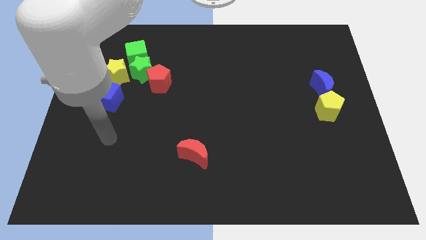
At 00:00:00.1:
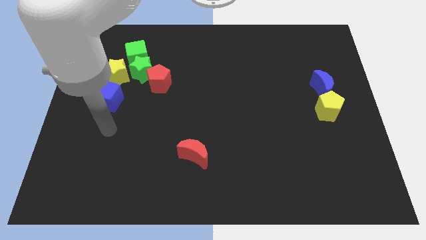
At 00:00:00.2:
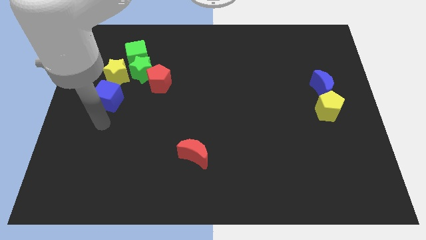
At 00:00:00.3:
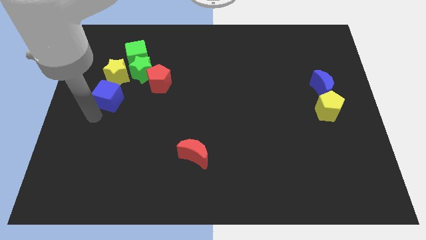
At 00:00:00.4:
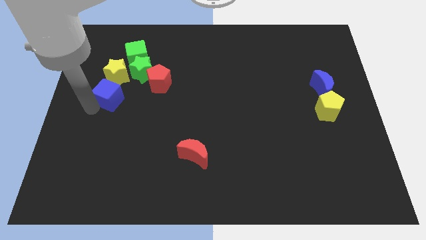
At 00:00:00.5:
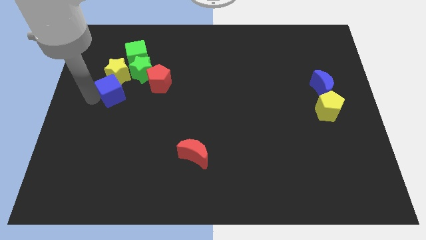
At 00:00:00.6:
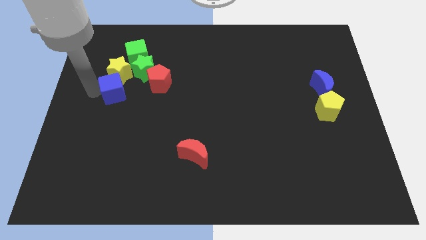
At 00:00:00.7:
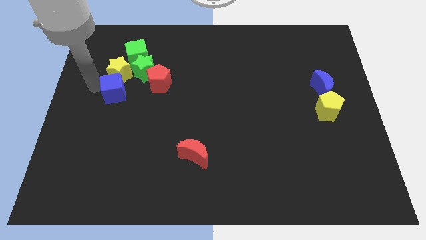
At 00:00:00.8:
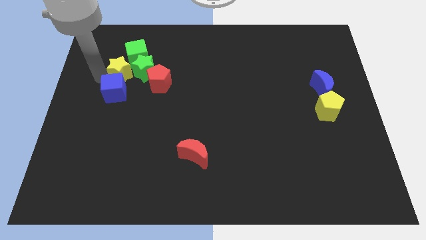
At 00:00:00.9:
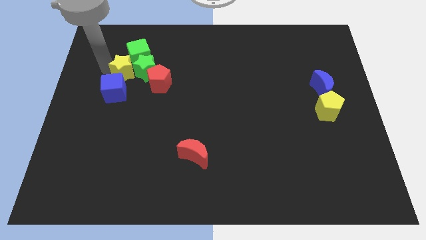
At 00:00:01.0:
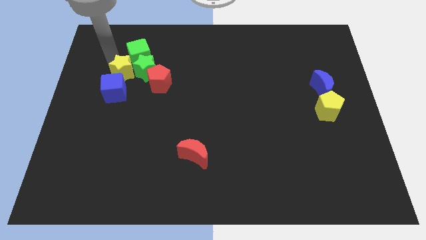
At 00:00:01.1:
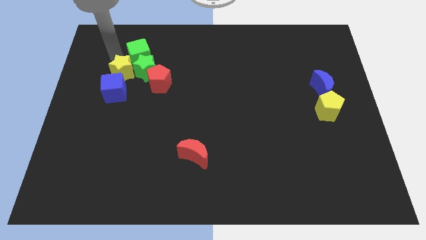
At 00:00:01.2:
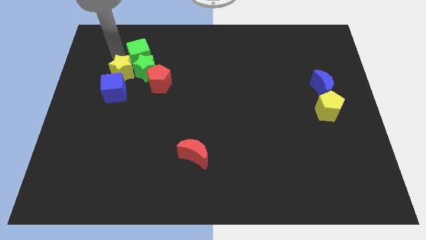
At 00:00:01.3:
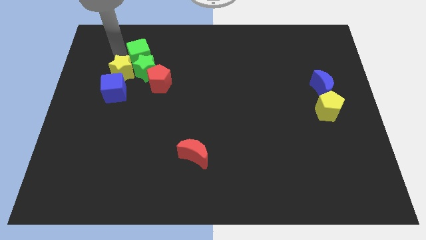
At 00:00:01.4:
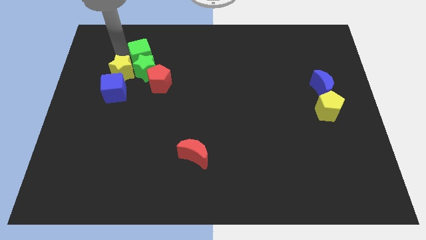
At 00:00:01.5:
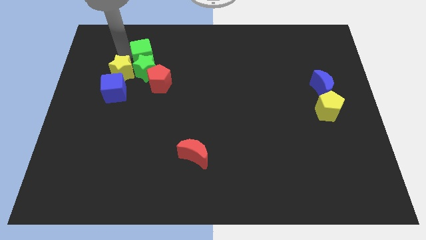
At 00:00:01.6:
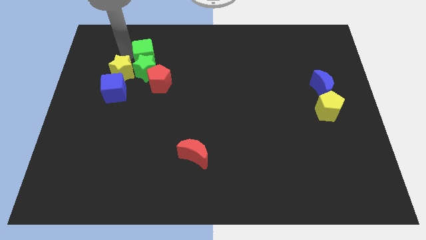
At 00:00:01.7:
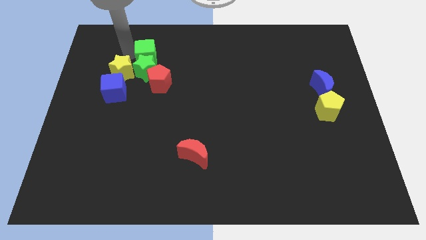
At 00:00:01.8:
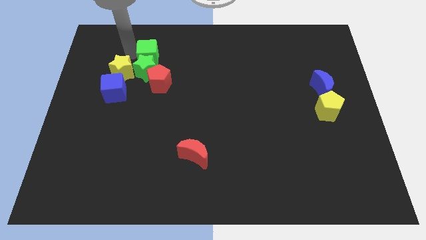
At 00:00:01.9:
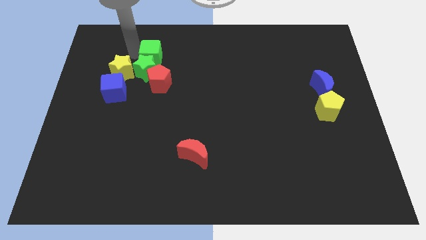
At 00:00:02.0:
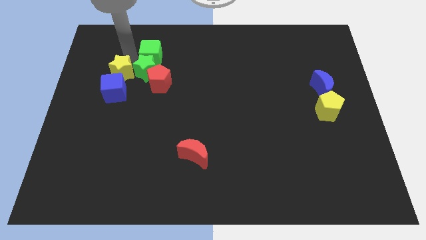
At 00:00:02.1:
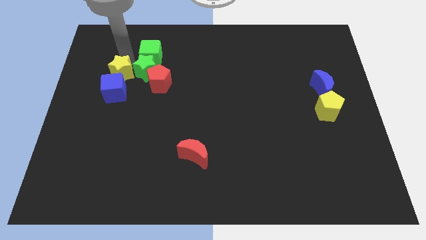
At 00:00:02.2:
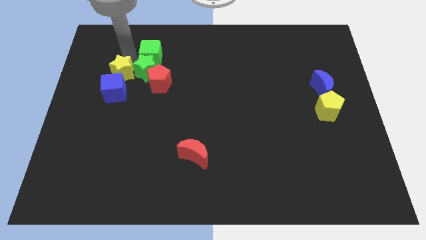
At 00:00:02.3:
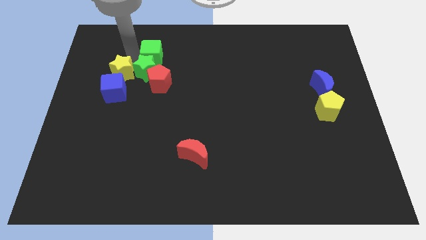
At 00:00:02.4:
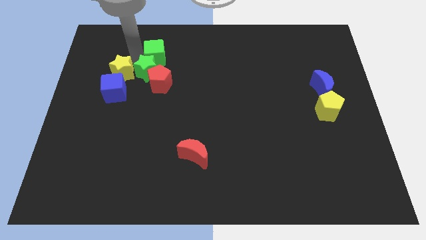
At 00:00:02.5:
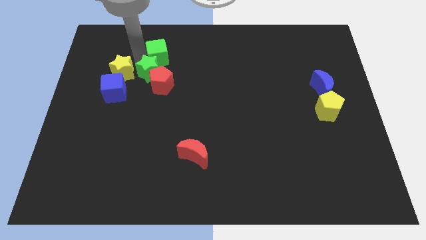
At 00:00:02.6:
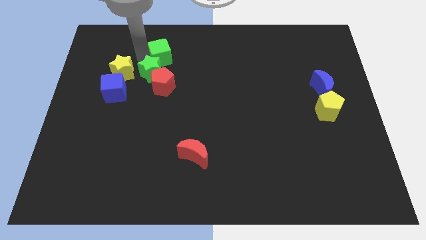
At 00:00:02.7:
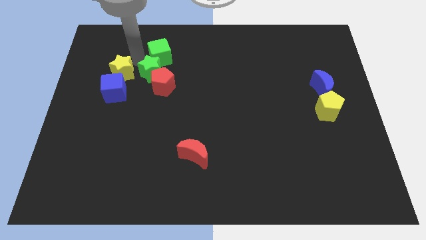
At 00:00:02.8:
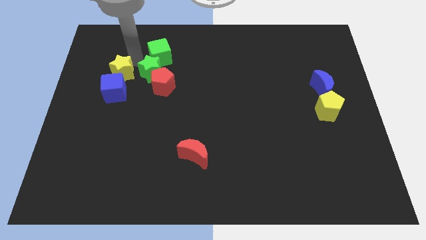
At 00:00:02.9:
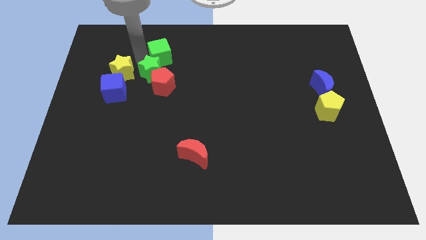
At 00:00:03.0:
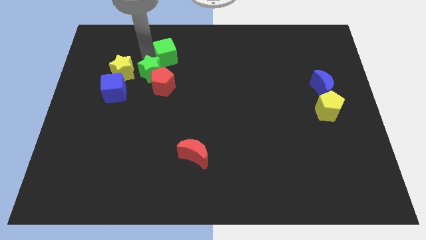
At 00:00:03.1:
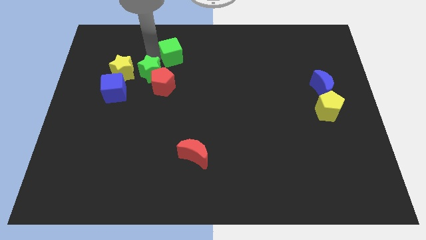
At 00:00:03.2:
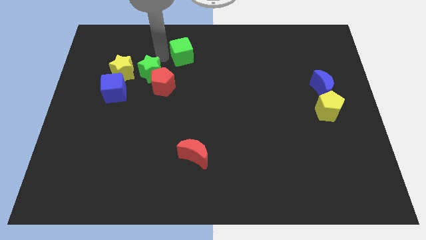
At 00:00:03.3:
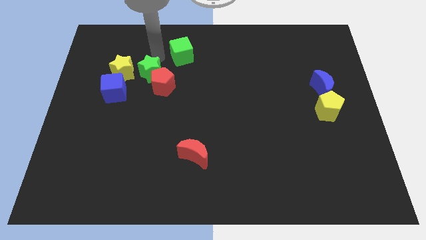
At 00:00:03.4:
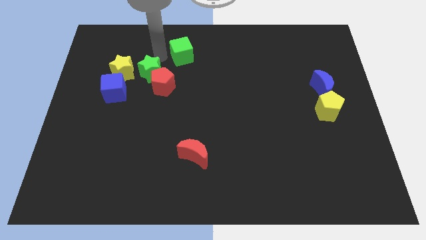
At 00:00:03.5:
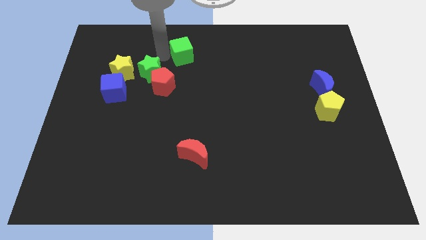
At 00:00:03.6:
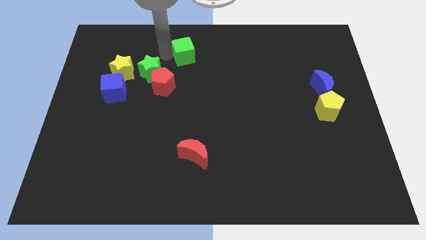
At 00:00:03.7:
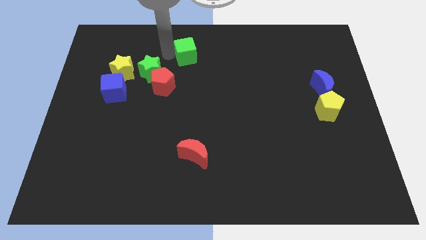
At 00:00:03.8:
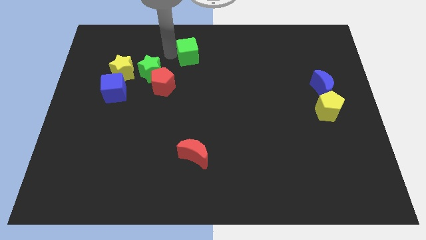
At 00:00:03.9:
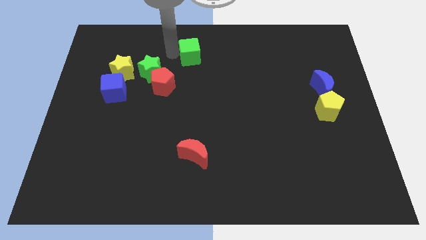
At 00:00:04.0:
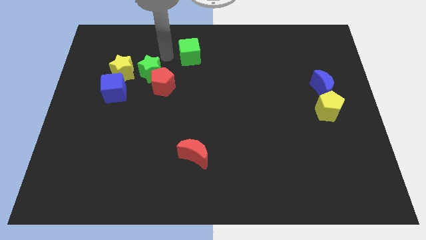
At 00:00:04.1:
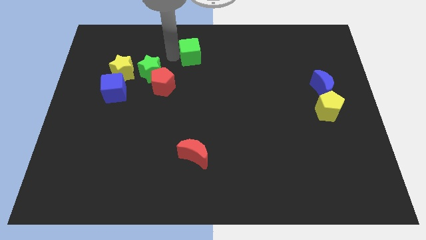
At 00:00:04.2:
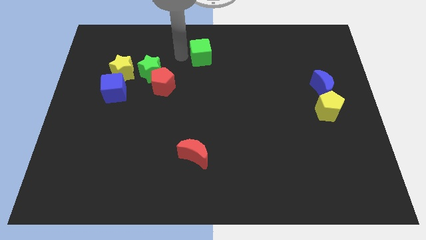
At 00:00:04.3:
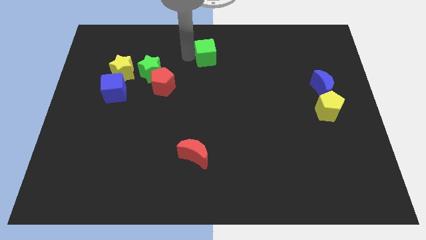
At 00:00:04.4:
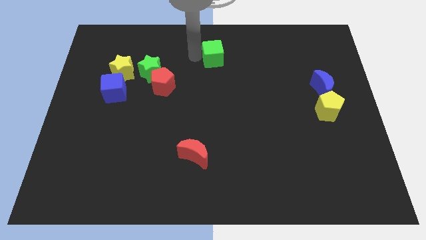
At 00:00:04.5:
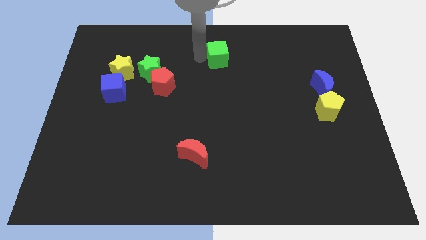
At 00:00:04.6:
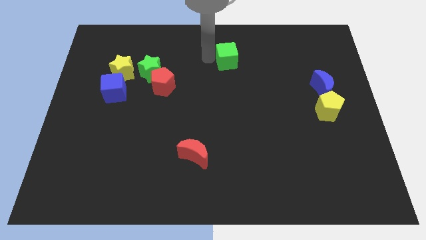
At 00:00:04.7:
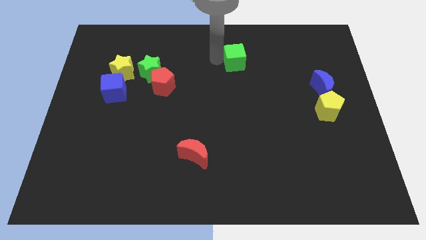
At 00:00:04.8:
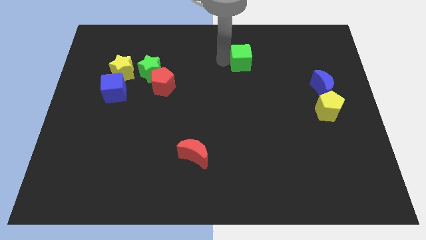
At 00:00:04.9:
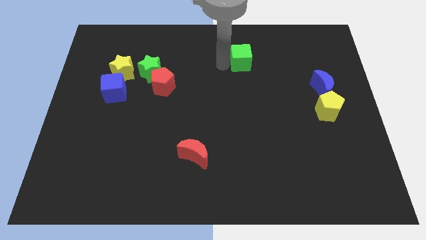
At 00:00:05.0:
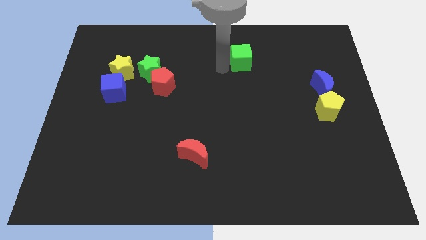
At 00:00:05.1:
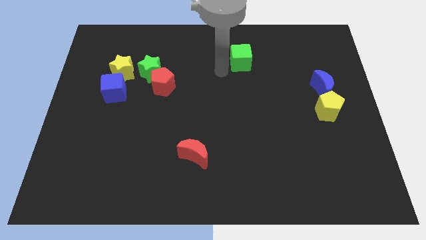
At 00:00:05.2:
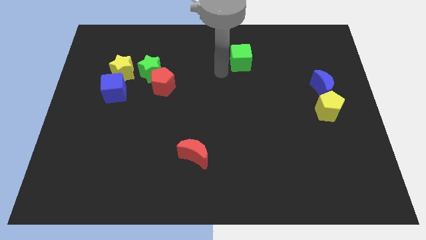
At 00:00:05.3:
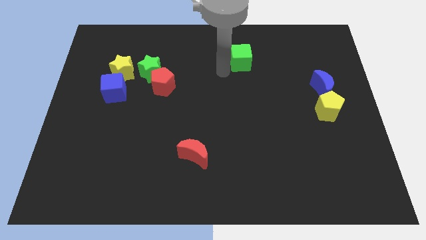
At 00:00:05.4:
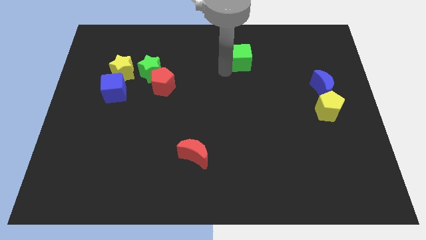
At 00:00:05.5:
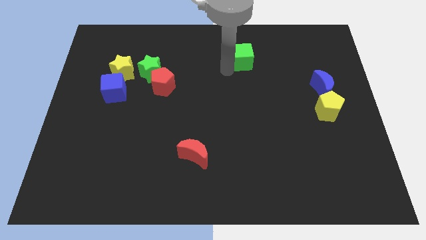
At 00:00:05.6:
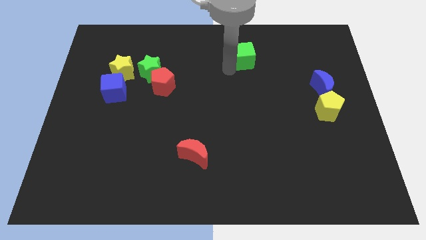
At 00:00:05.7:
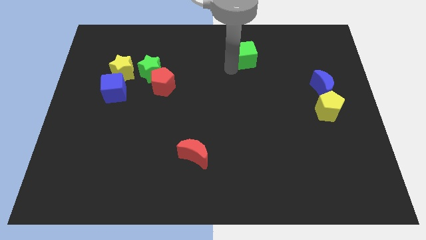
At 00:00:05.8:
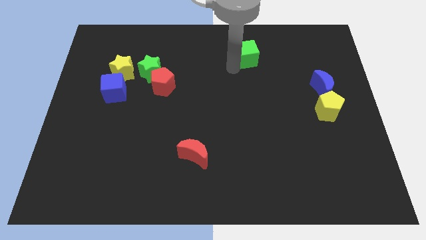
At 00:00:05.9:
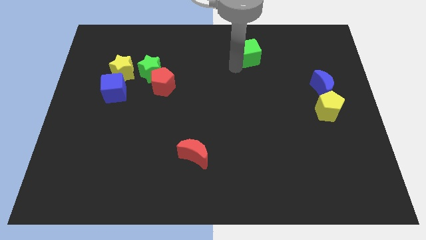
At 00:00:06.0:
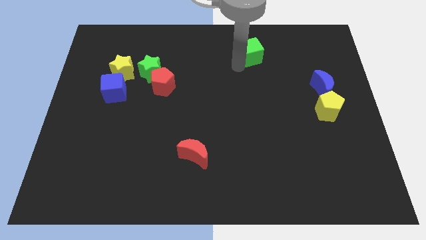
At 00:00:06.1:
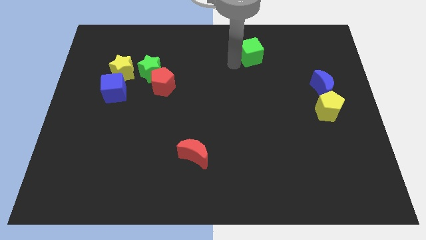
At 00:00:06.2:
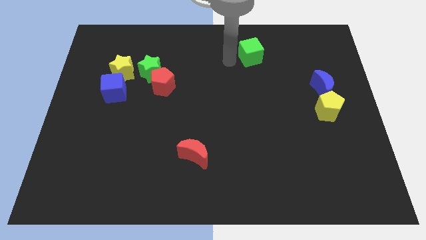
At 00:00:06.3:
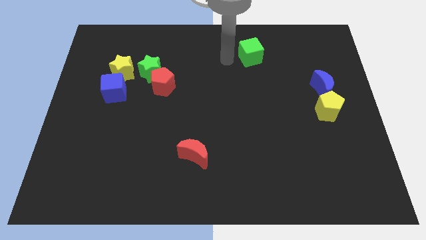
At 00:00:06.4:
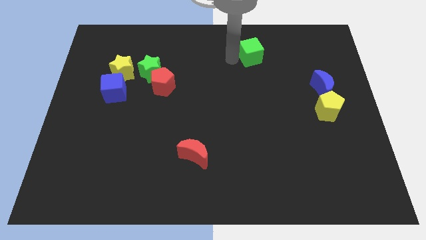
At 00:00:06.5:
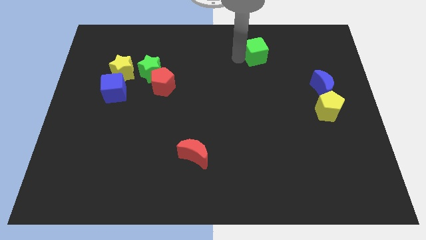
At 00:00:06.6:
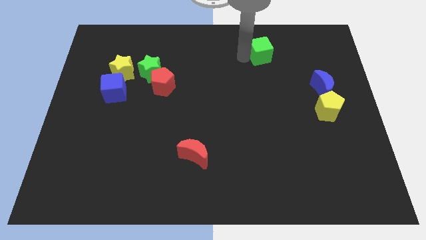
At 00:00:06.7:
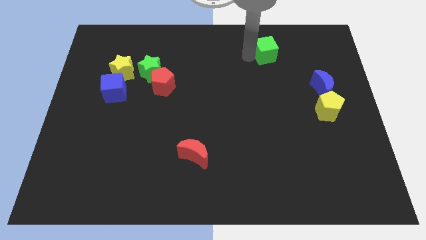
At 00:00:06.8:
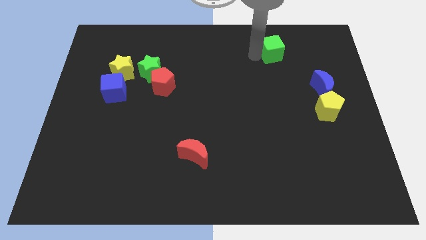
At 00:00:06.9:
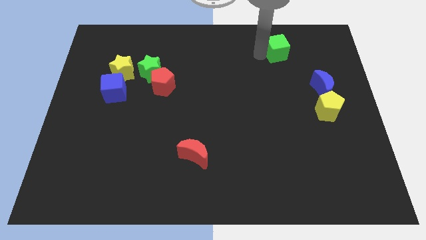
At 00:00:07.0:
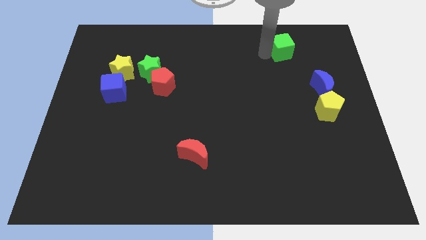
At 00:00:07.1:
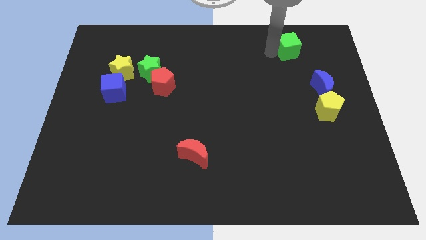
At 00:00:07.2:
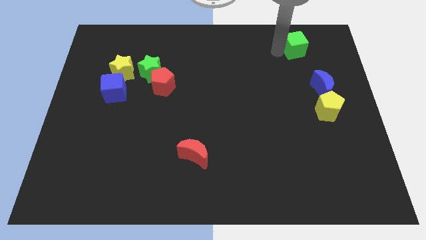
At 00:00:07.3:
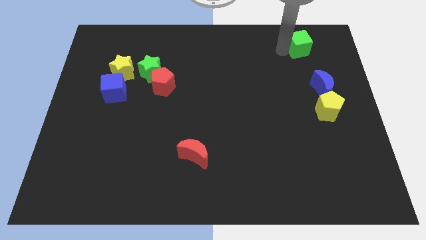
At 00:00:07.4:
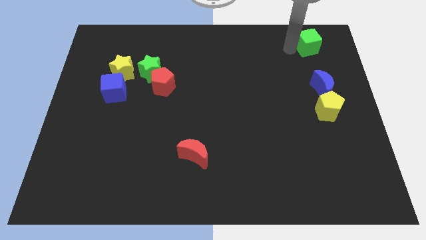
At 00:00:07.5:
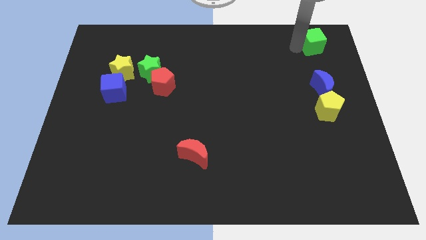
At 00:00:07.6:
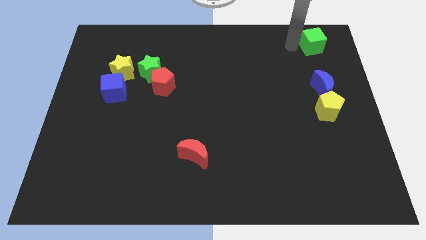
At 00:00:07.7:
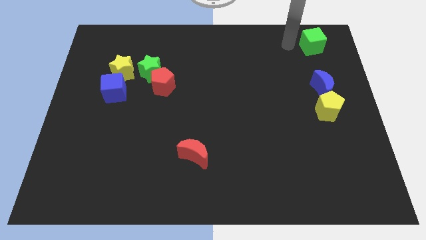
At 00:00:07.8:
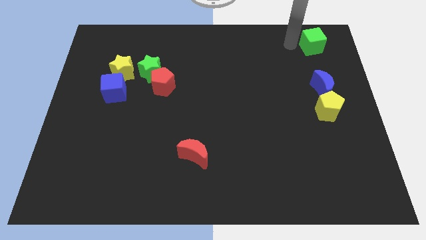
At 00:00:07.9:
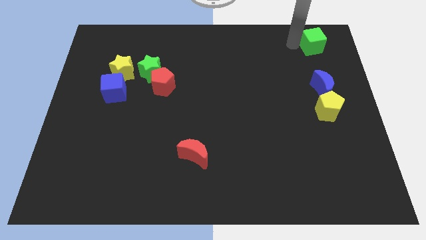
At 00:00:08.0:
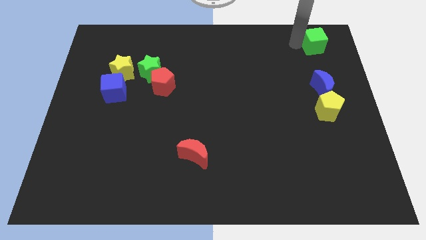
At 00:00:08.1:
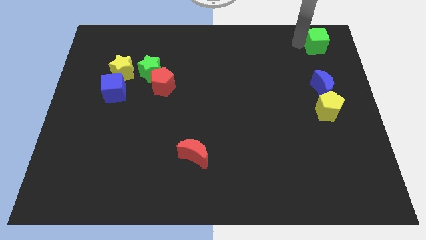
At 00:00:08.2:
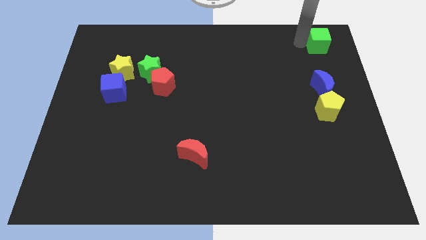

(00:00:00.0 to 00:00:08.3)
put the green cube to the top right of the board
